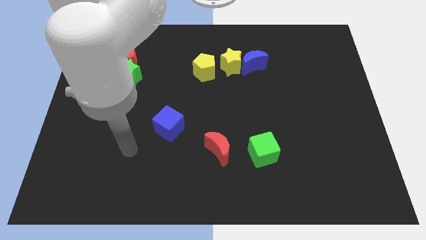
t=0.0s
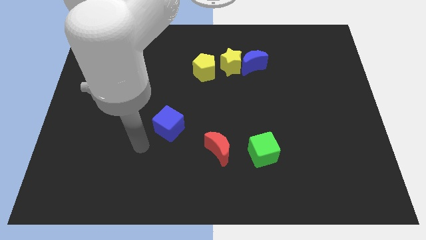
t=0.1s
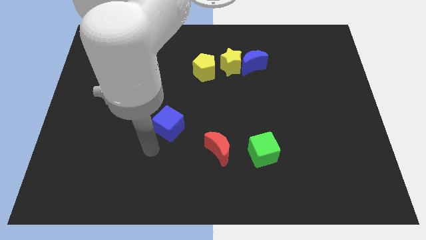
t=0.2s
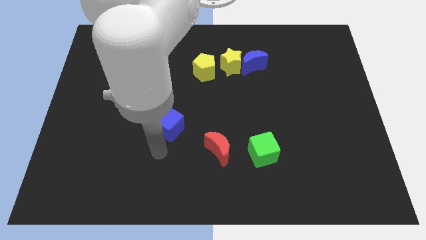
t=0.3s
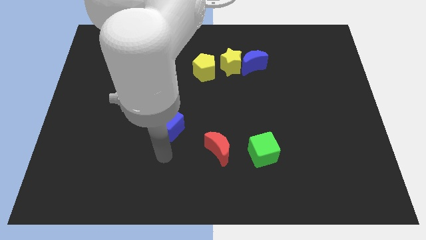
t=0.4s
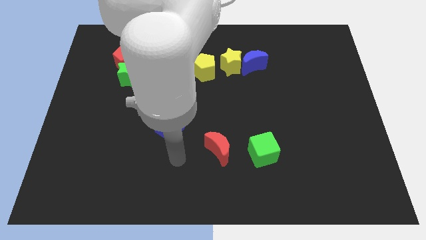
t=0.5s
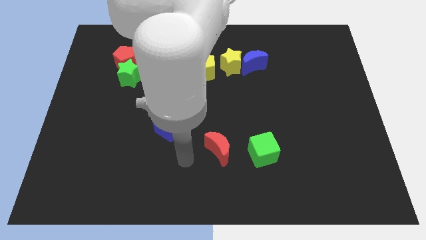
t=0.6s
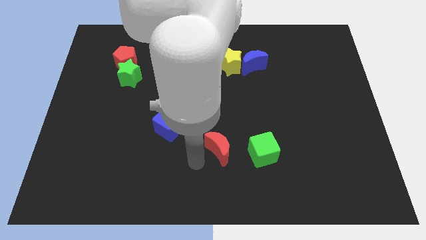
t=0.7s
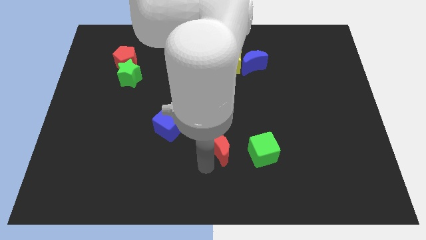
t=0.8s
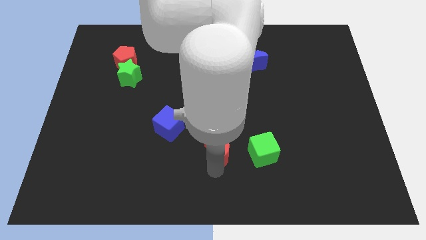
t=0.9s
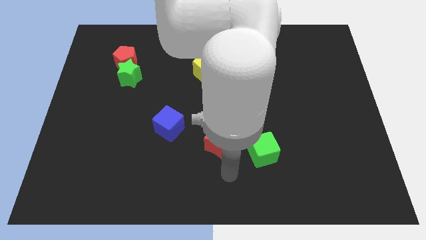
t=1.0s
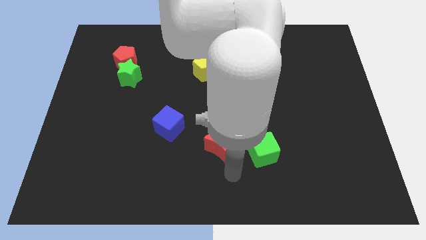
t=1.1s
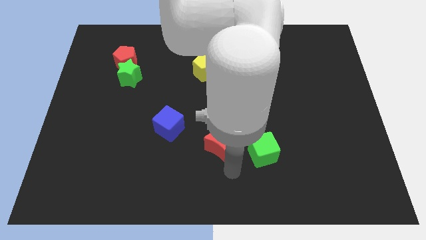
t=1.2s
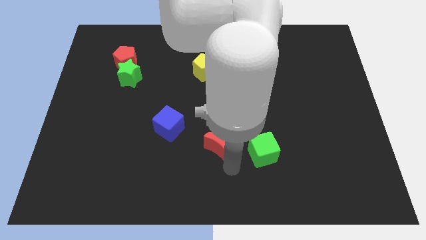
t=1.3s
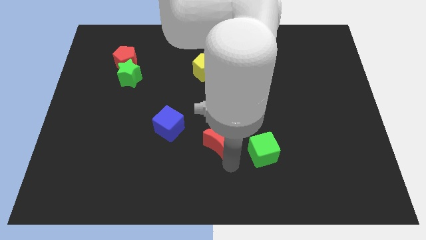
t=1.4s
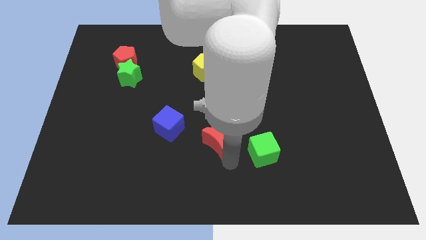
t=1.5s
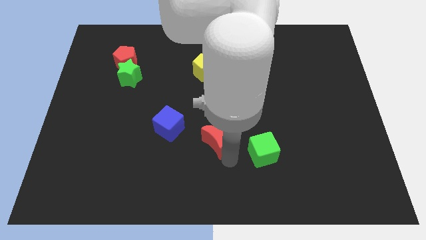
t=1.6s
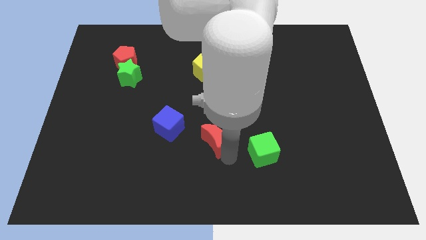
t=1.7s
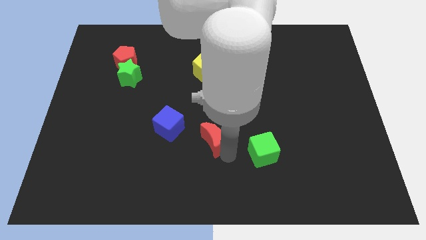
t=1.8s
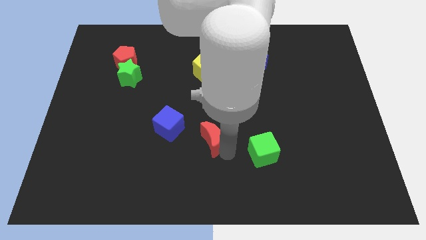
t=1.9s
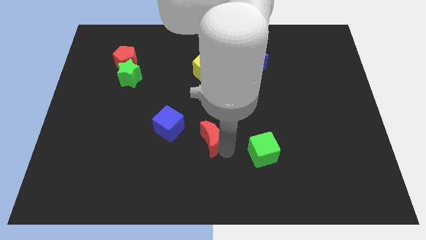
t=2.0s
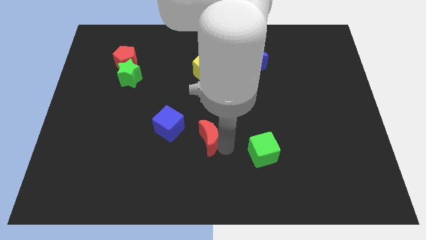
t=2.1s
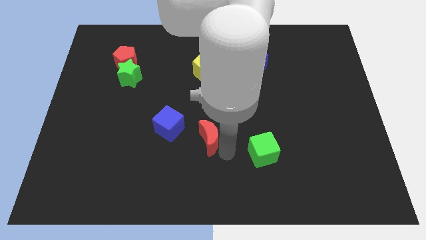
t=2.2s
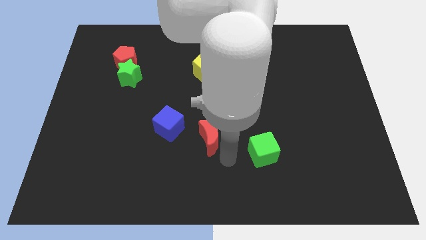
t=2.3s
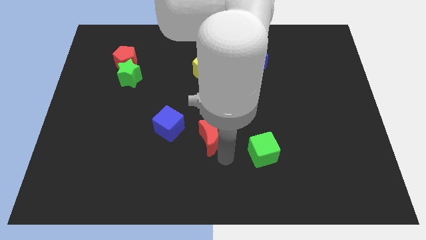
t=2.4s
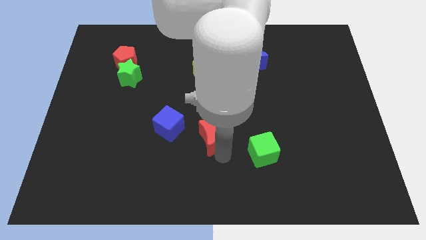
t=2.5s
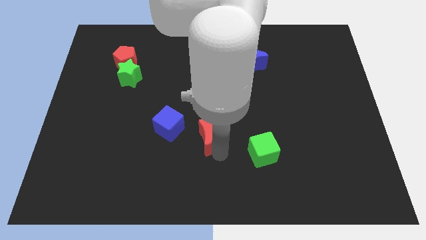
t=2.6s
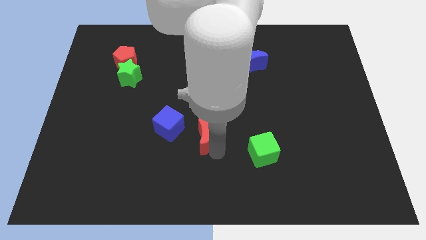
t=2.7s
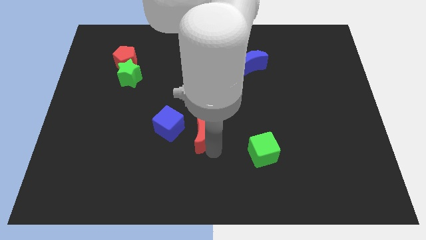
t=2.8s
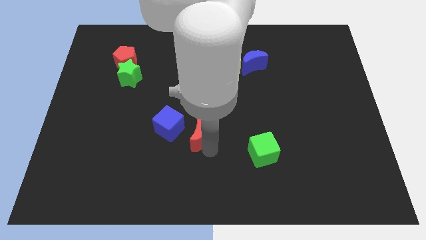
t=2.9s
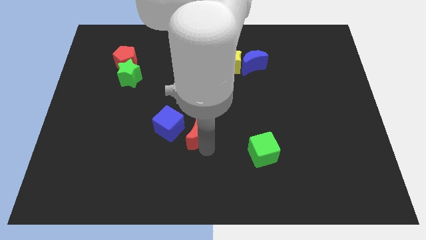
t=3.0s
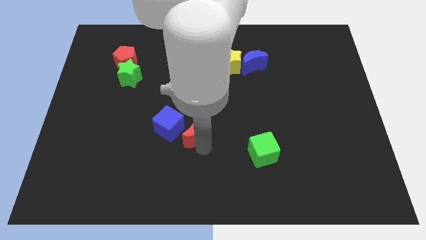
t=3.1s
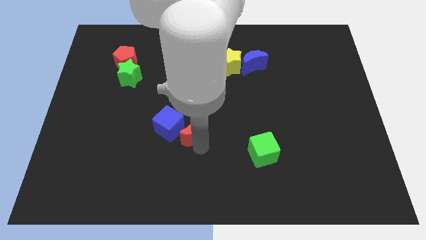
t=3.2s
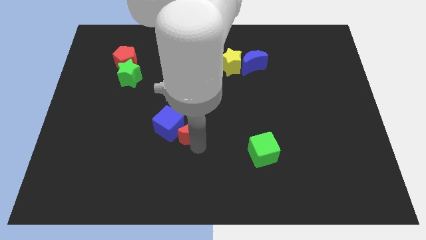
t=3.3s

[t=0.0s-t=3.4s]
slide the red moon upwards and then to the left a little

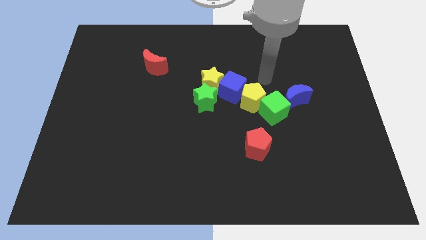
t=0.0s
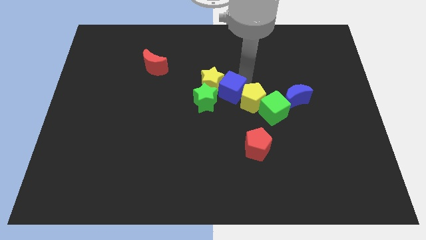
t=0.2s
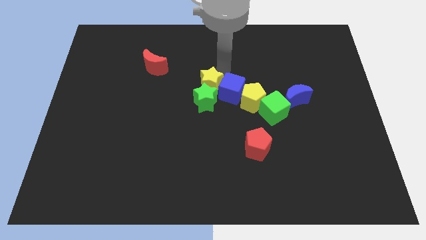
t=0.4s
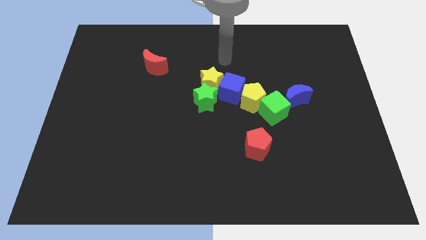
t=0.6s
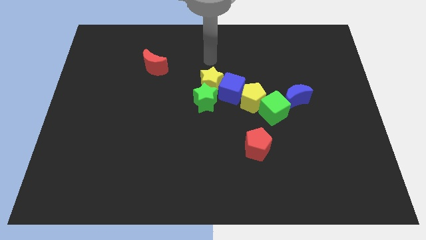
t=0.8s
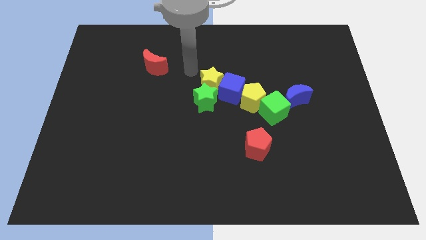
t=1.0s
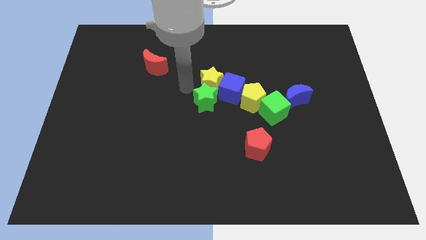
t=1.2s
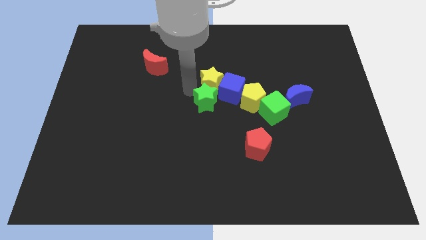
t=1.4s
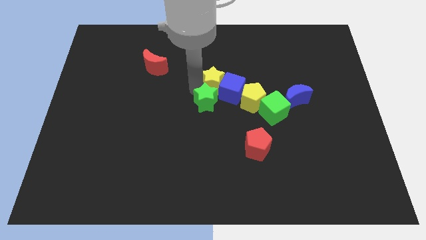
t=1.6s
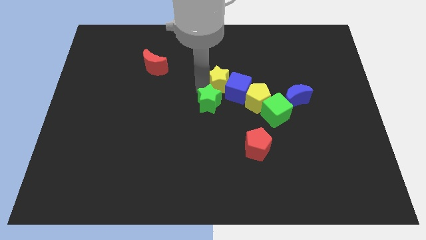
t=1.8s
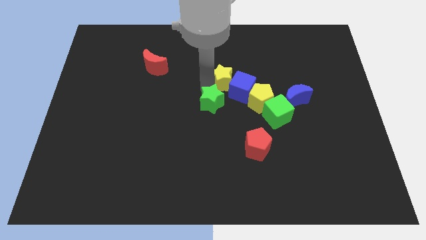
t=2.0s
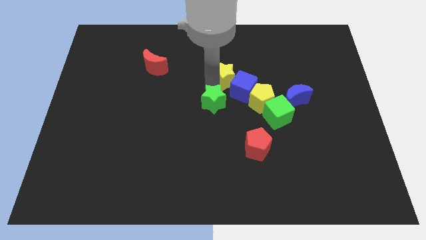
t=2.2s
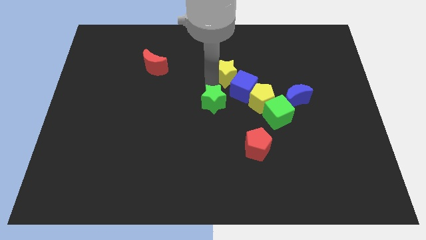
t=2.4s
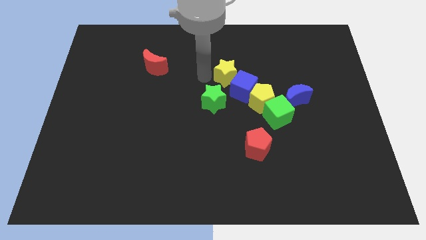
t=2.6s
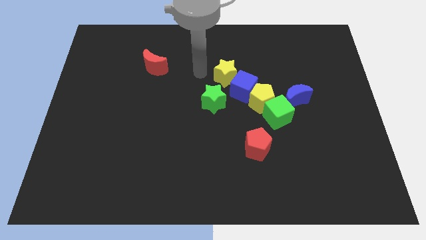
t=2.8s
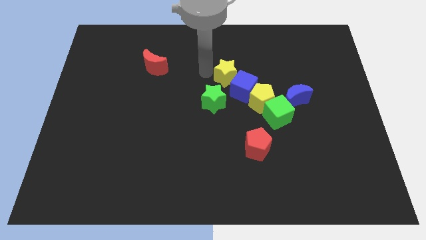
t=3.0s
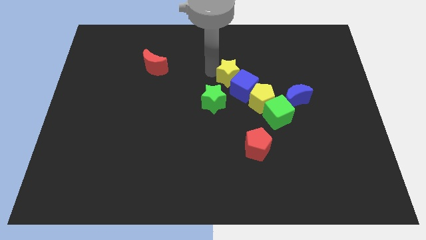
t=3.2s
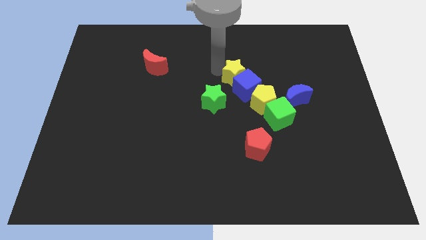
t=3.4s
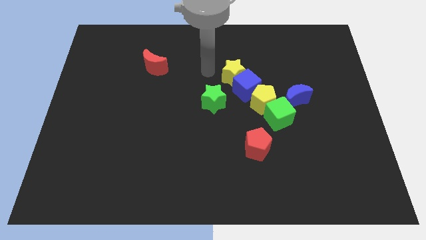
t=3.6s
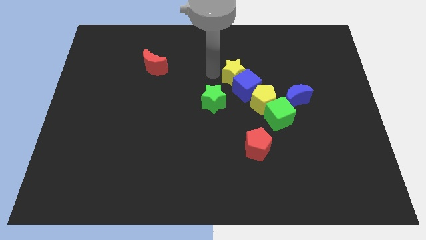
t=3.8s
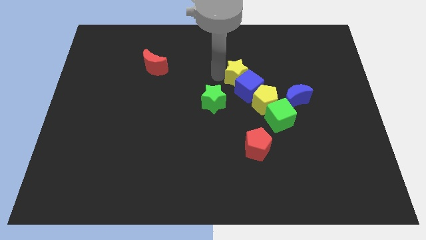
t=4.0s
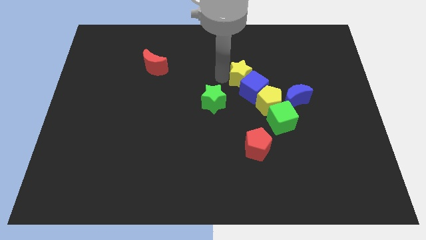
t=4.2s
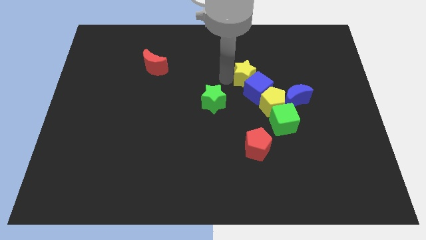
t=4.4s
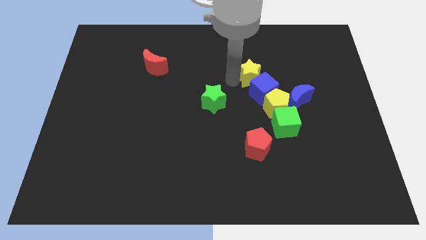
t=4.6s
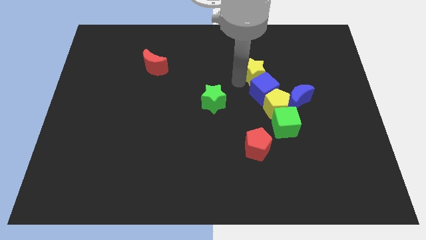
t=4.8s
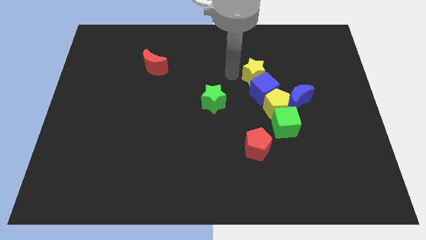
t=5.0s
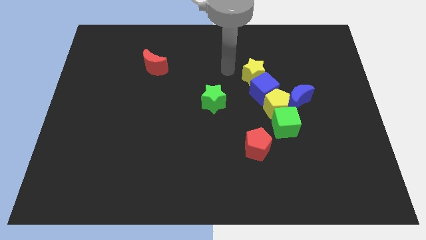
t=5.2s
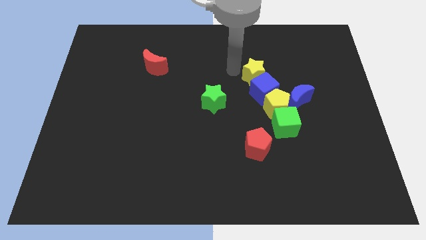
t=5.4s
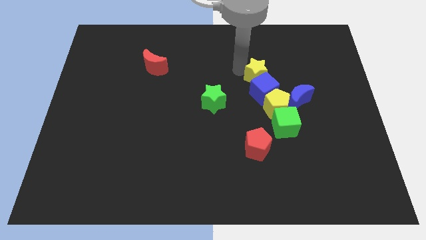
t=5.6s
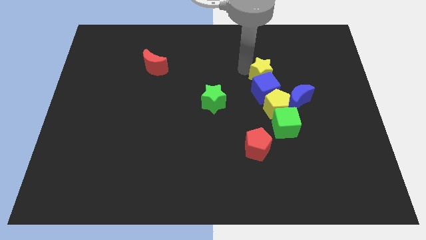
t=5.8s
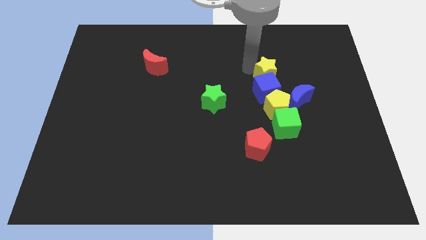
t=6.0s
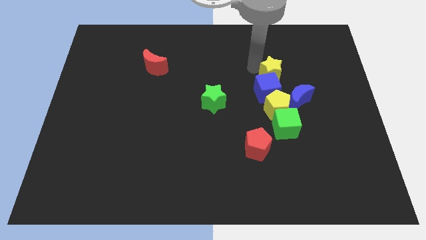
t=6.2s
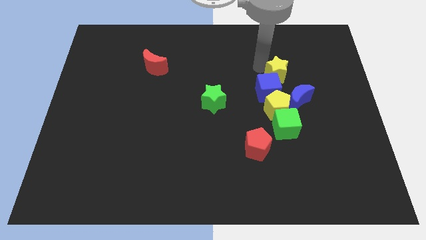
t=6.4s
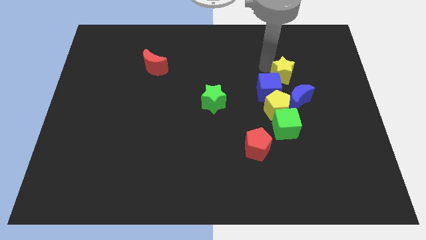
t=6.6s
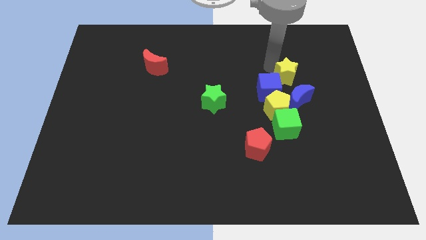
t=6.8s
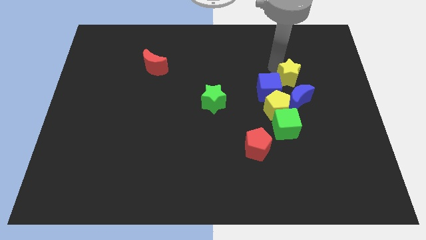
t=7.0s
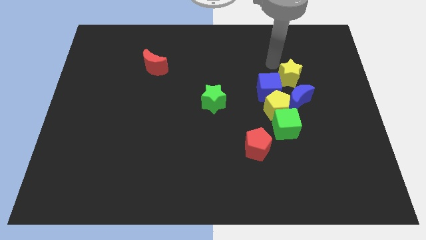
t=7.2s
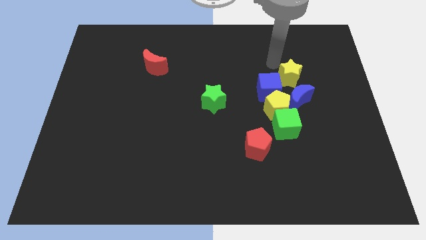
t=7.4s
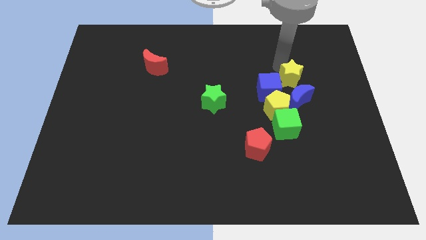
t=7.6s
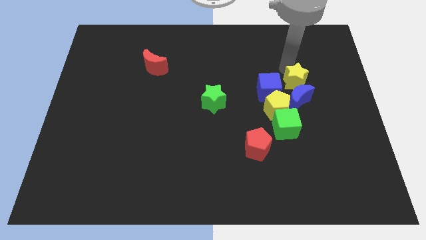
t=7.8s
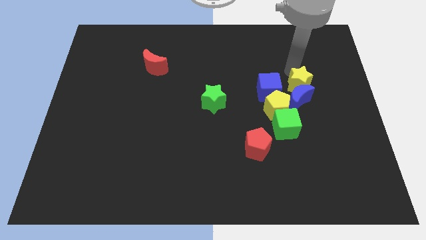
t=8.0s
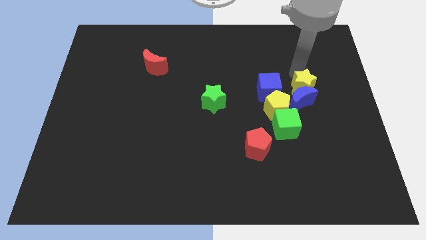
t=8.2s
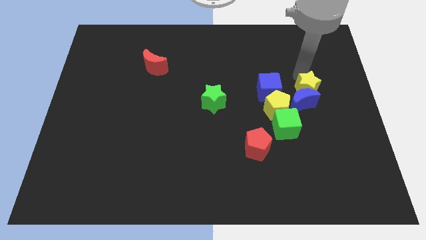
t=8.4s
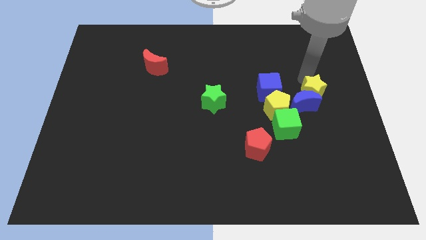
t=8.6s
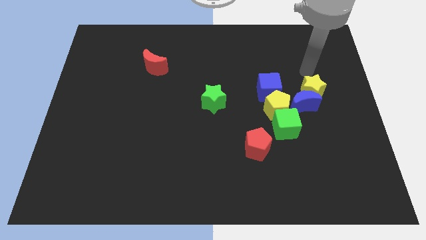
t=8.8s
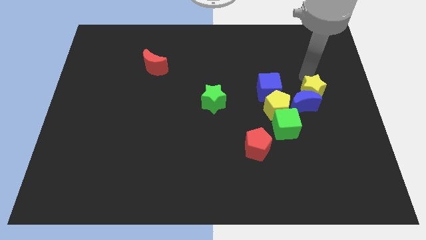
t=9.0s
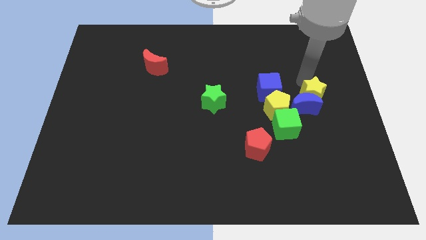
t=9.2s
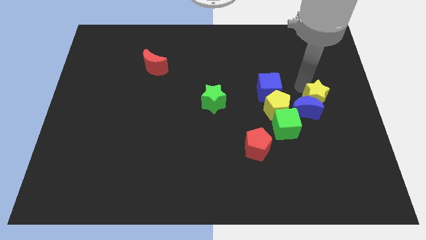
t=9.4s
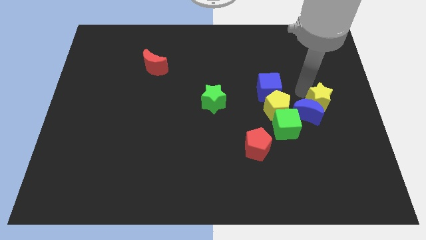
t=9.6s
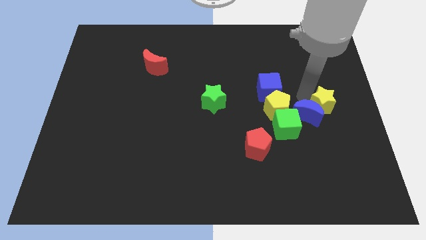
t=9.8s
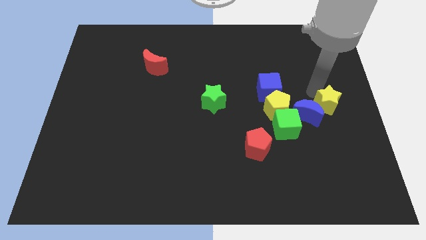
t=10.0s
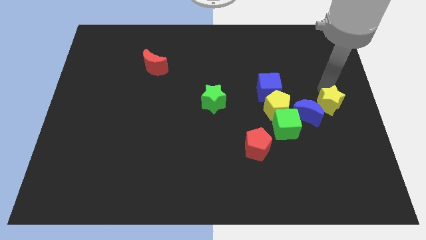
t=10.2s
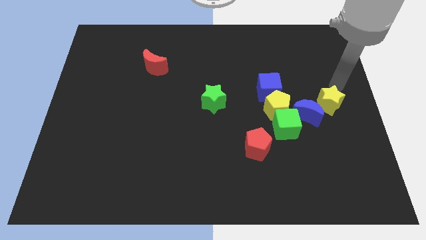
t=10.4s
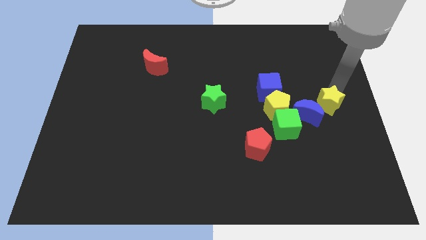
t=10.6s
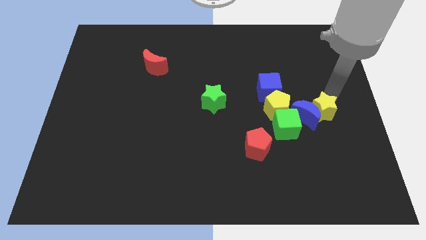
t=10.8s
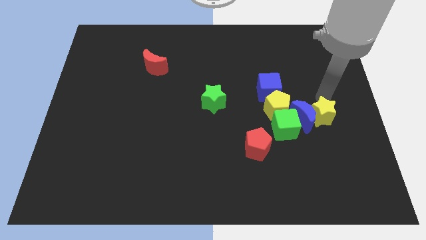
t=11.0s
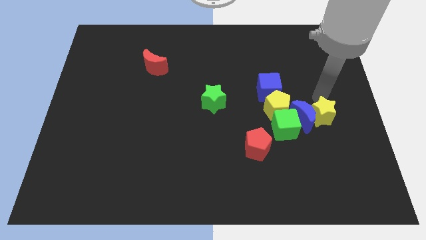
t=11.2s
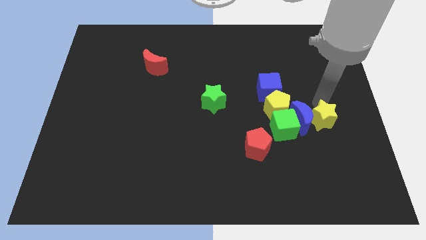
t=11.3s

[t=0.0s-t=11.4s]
move the yellow star down and right
